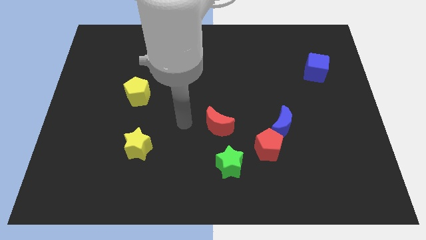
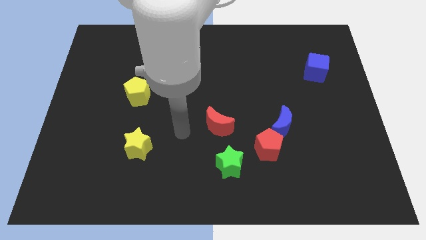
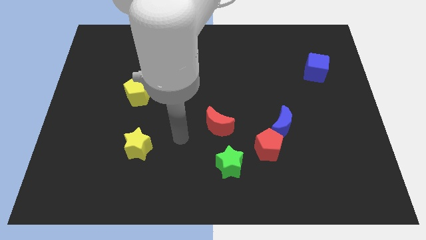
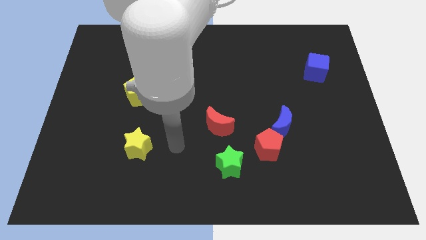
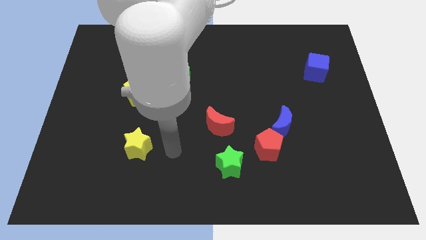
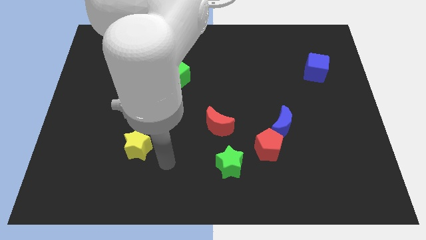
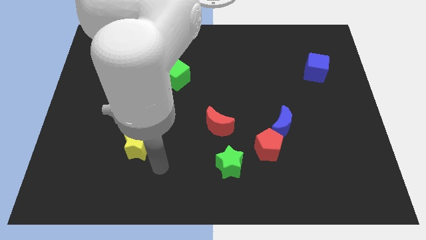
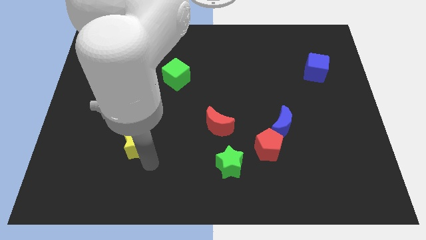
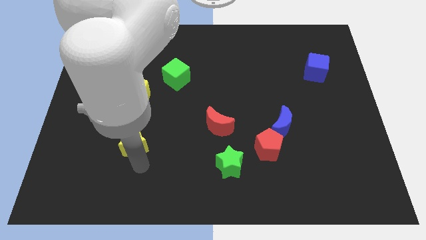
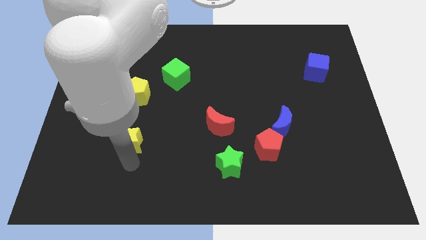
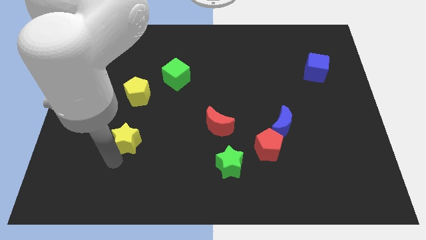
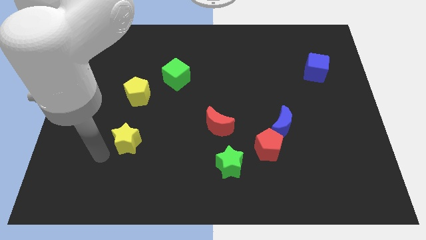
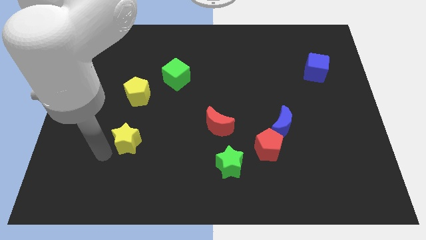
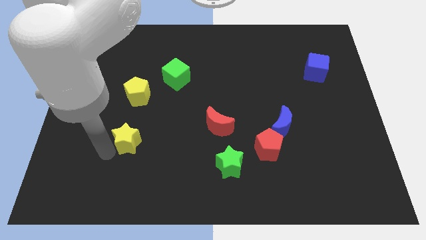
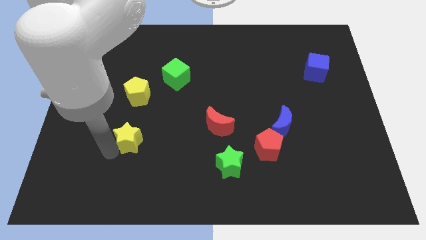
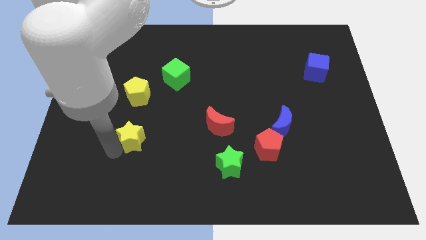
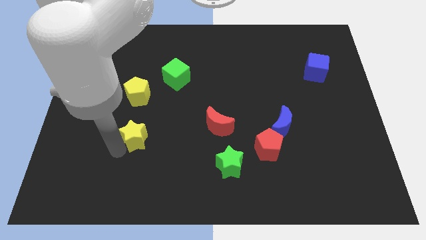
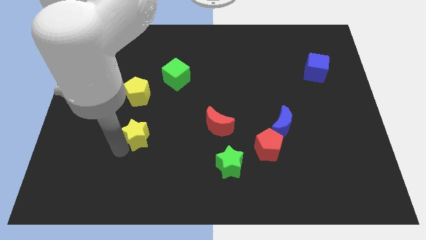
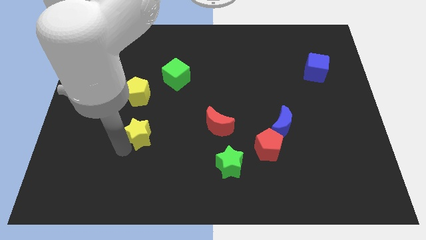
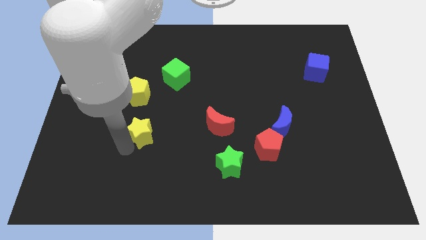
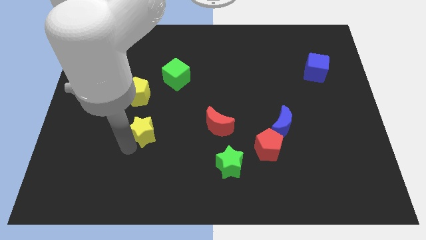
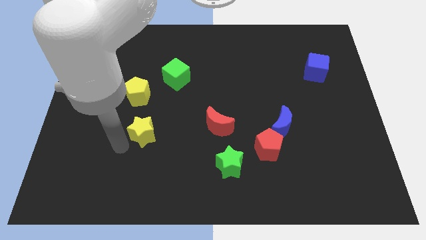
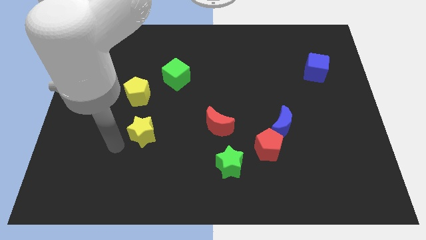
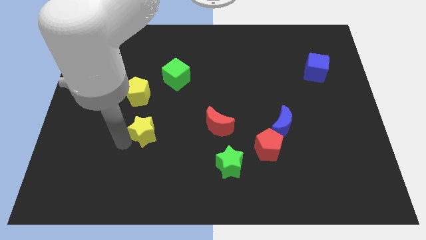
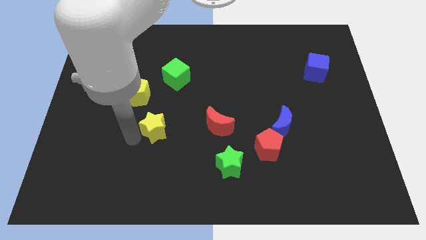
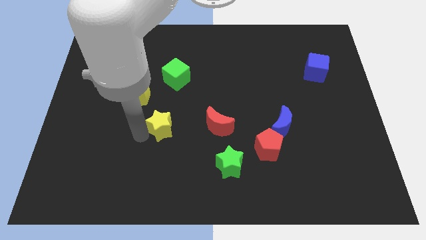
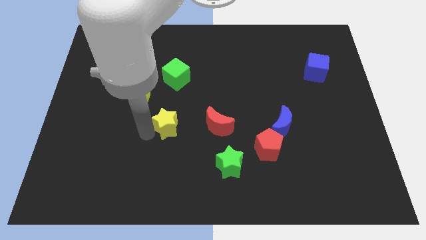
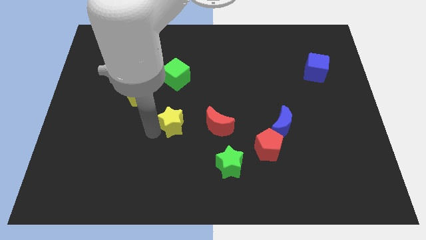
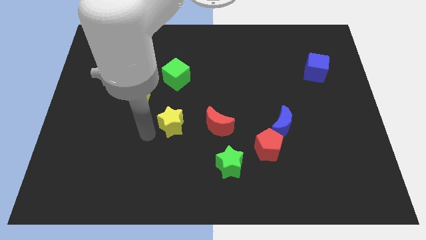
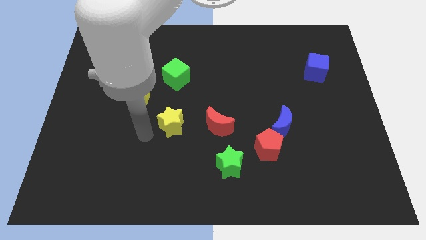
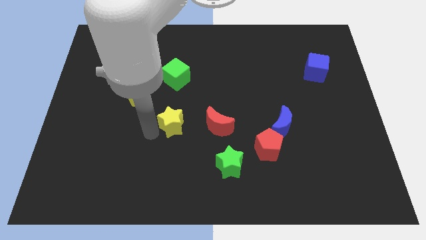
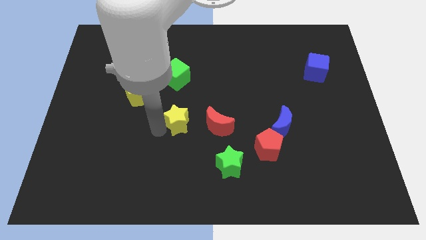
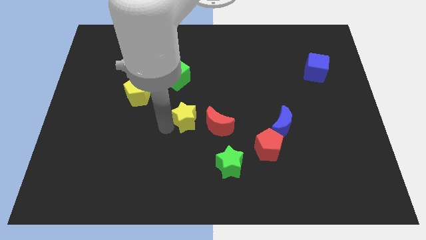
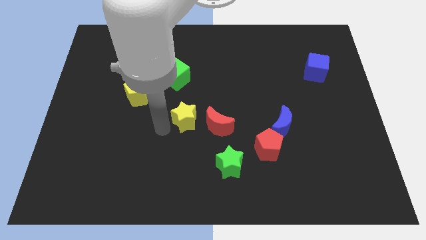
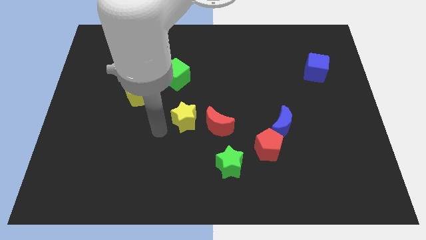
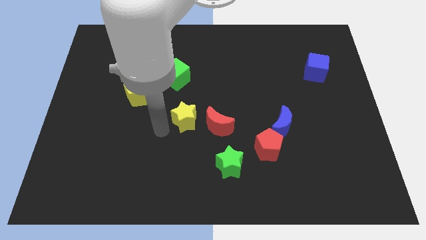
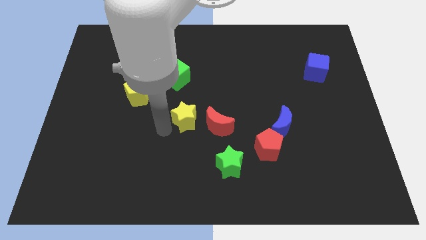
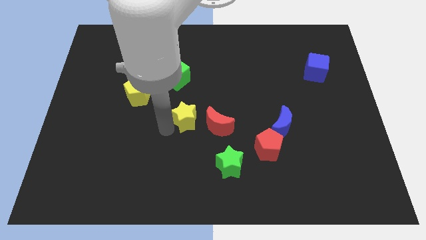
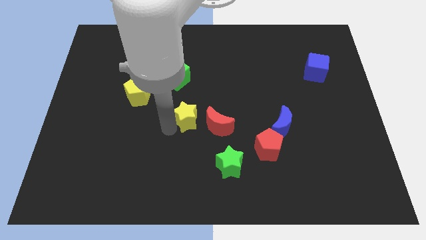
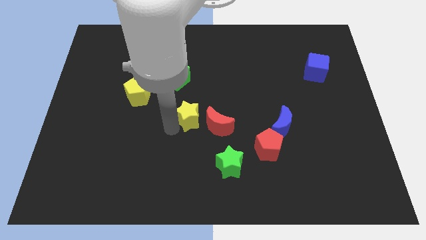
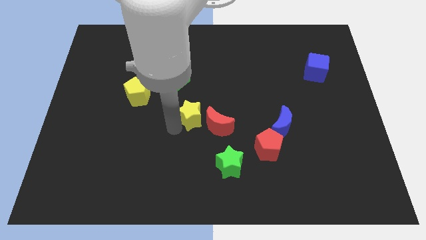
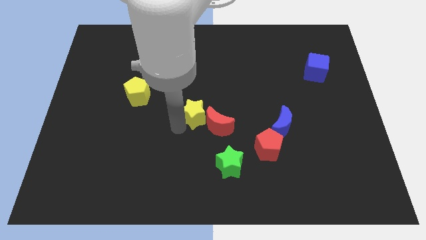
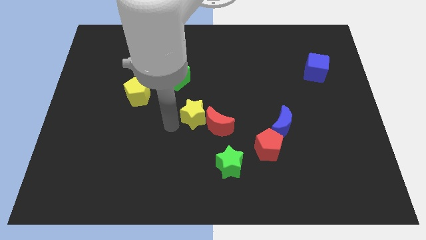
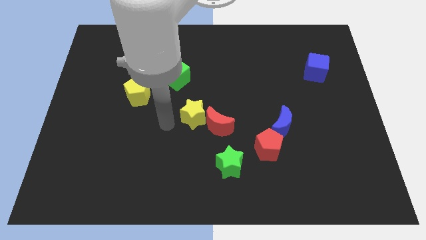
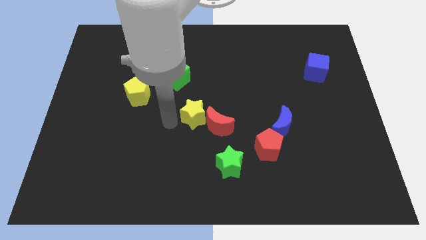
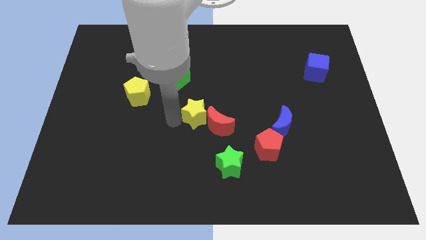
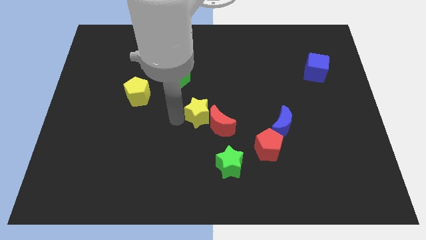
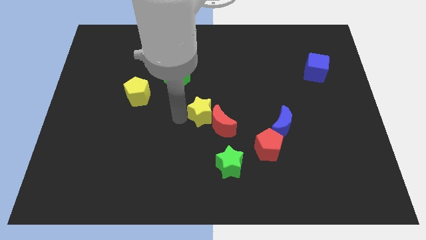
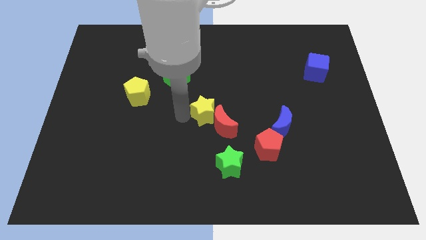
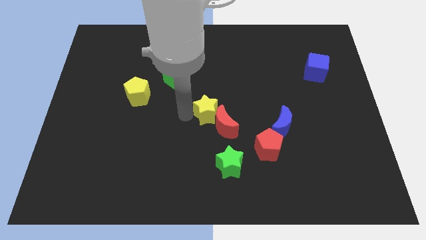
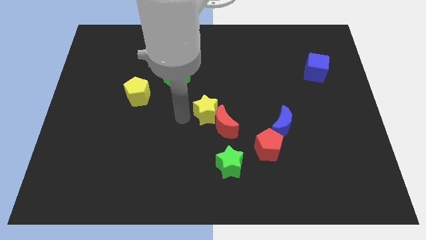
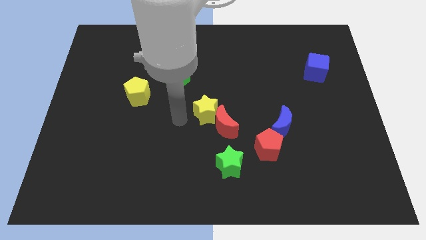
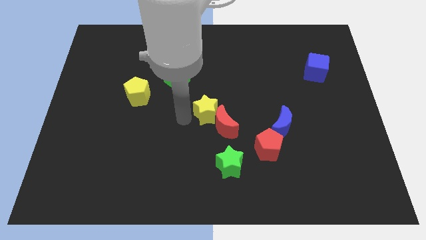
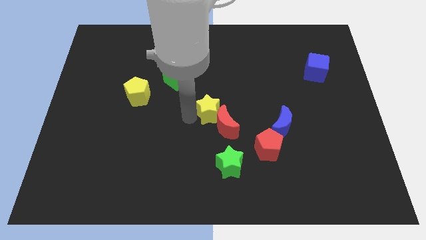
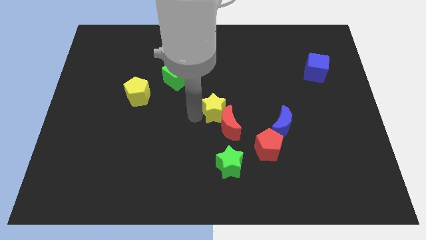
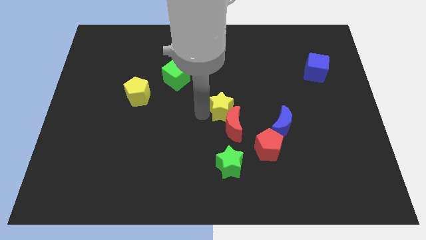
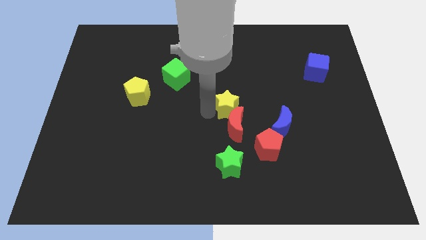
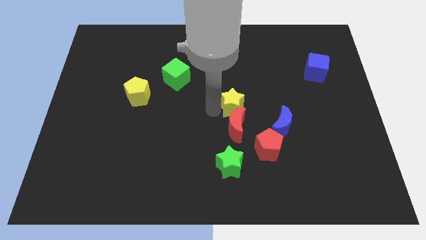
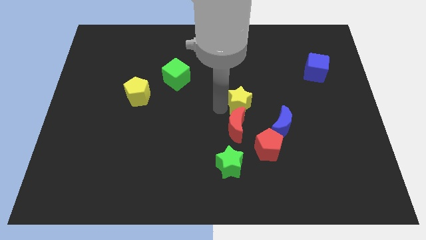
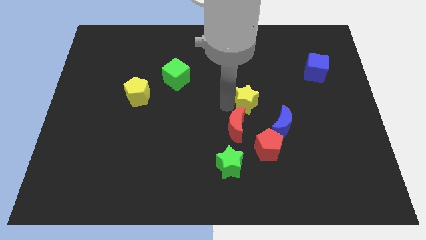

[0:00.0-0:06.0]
move the yellow star above the red pentagon

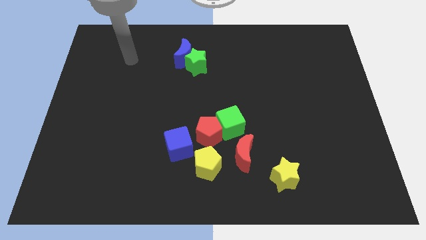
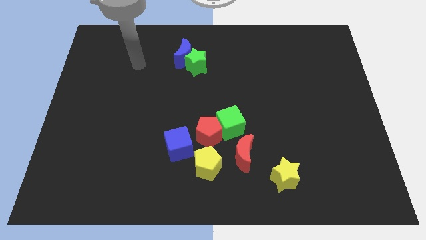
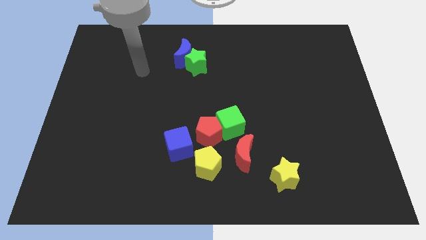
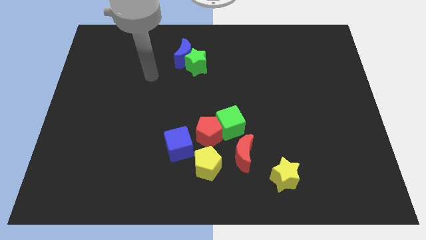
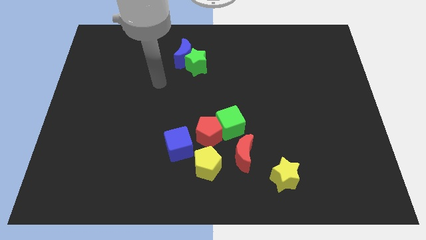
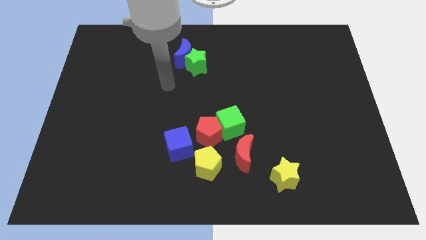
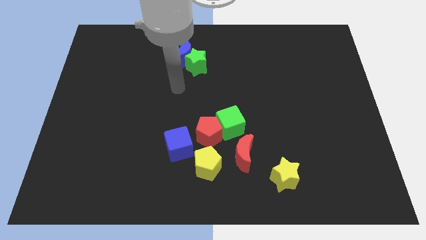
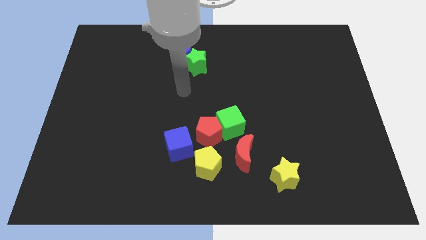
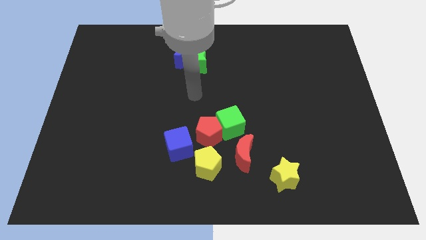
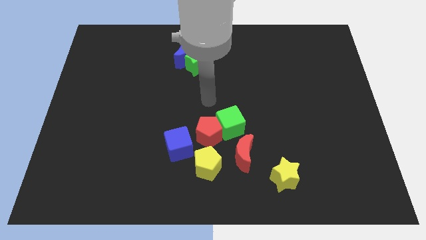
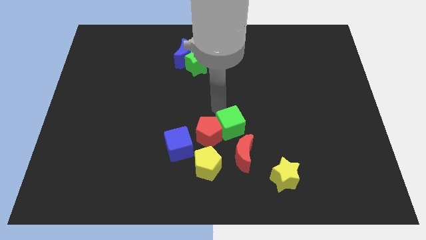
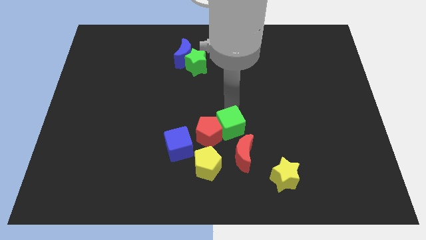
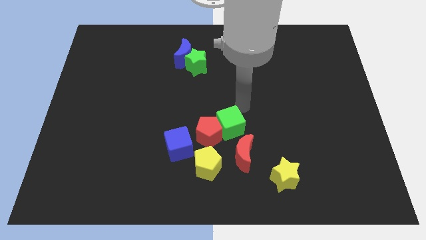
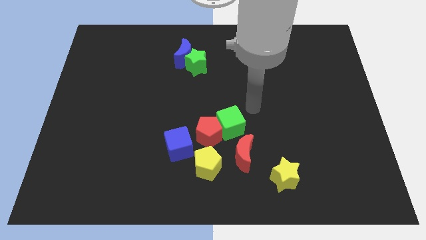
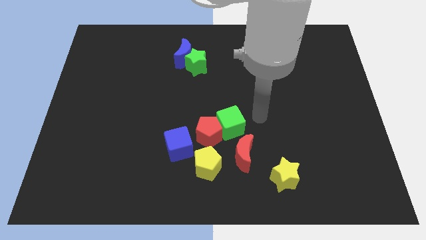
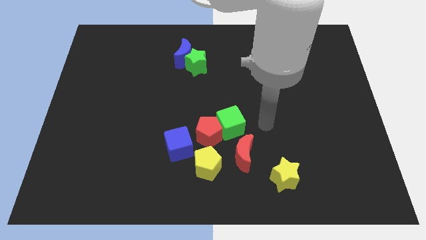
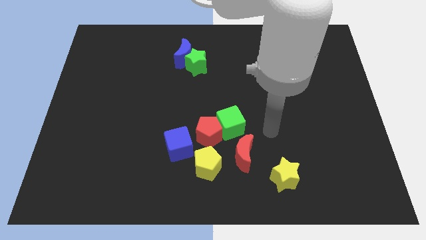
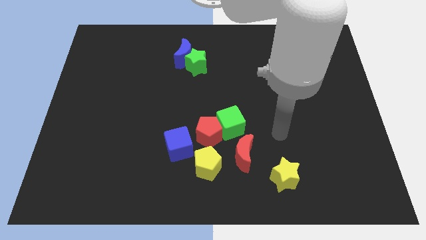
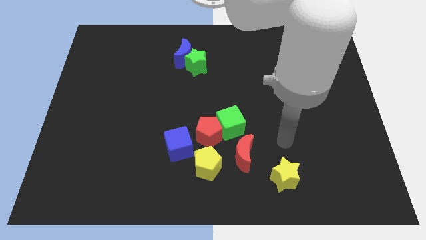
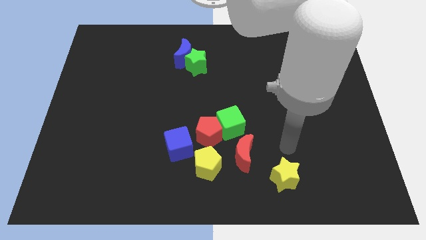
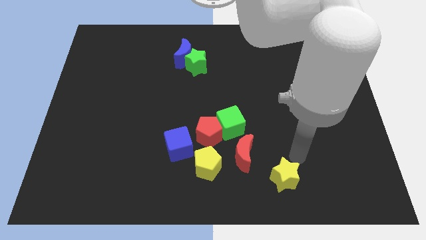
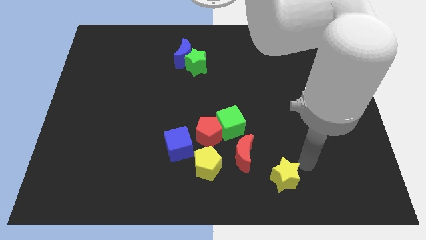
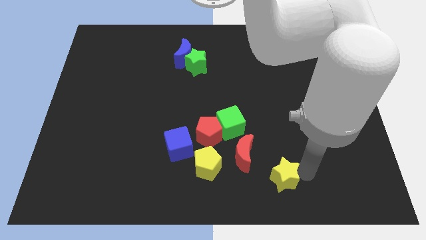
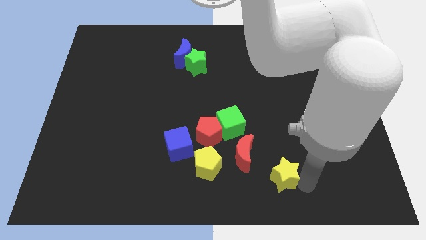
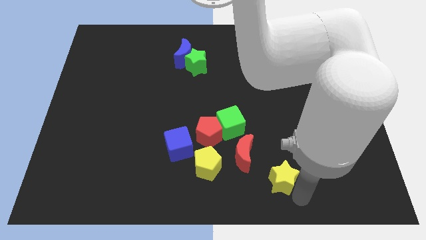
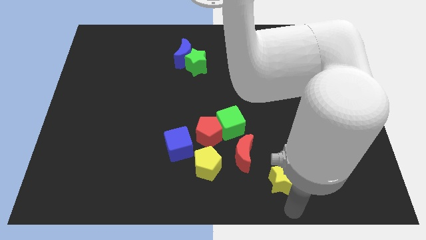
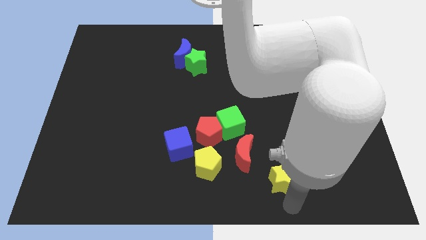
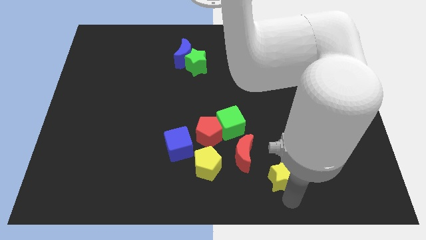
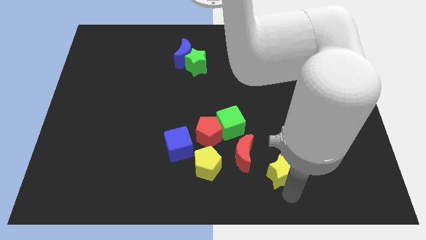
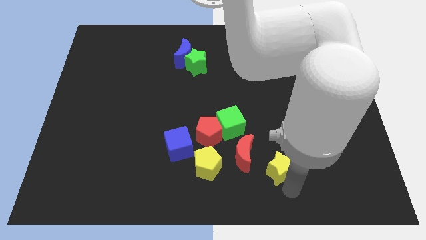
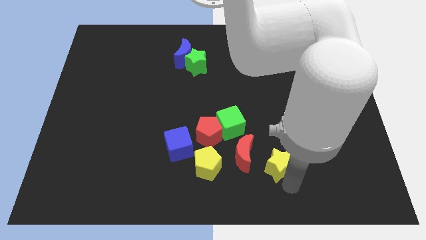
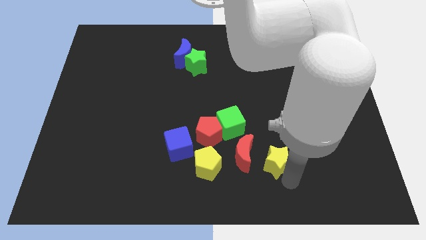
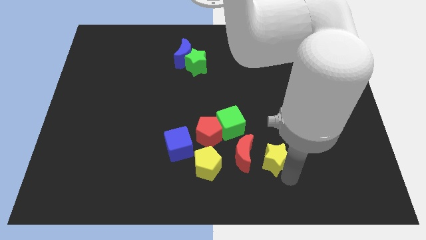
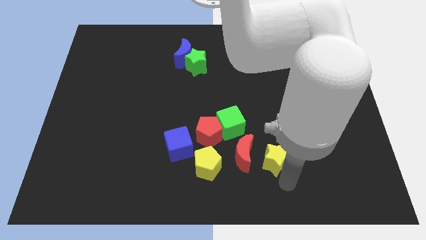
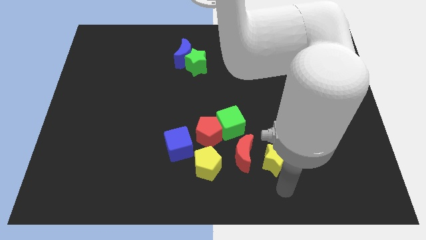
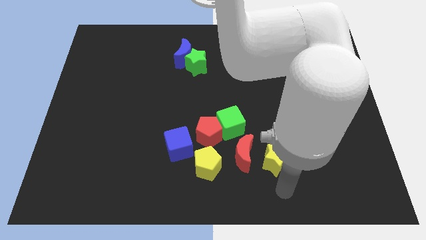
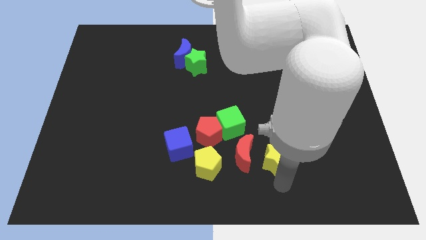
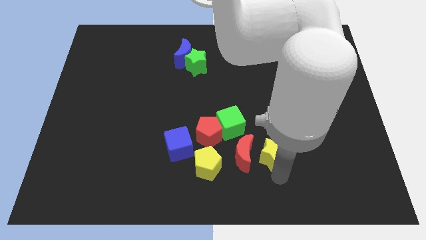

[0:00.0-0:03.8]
put the yellow star to the top right side of the red moon
